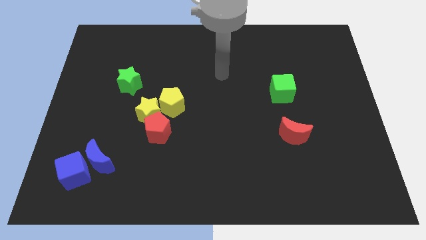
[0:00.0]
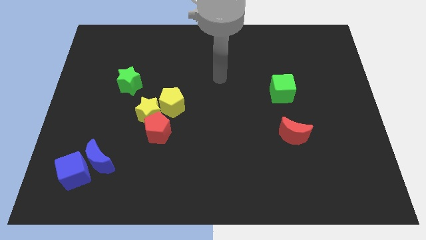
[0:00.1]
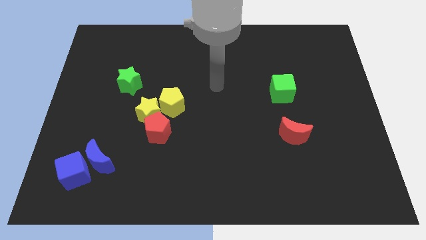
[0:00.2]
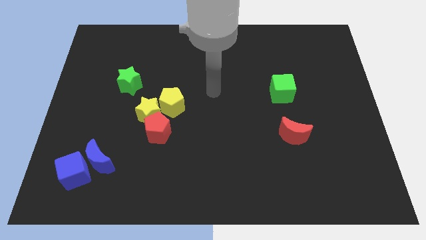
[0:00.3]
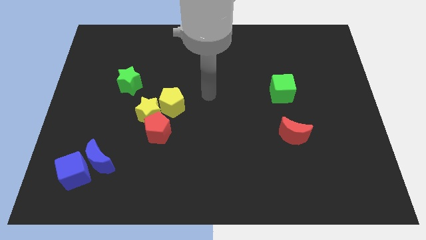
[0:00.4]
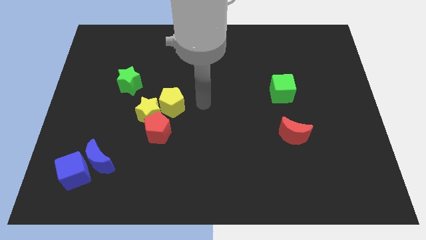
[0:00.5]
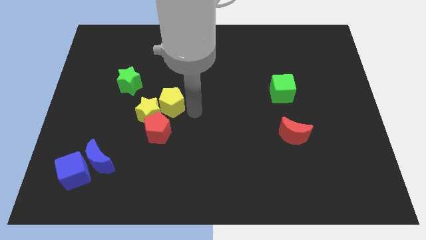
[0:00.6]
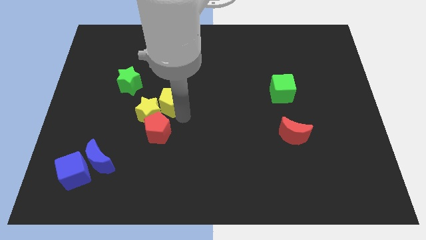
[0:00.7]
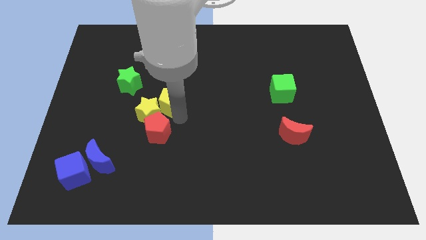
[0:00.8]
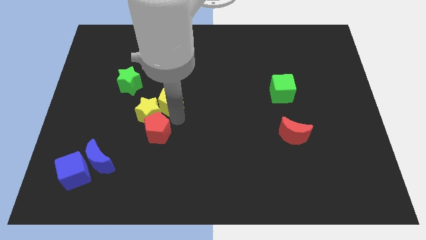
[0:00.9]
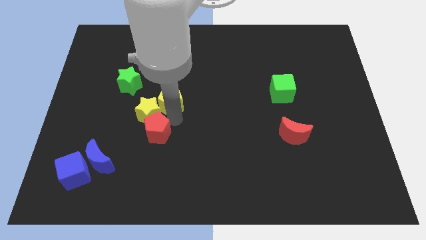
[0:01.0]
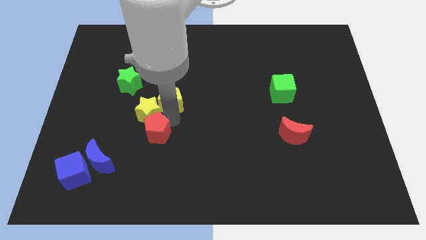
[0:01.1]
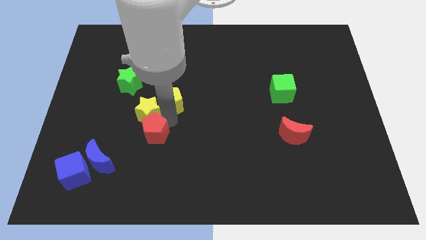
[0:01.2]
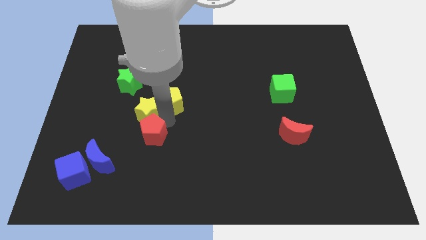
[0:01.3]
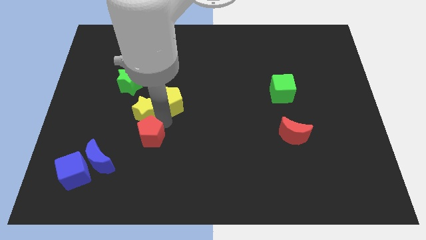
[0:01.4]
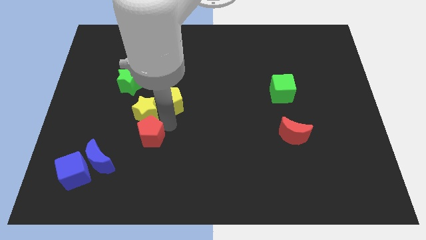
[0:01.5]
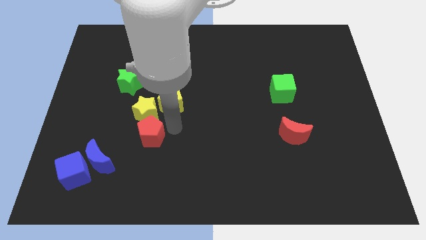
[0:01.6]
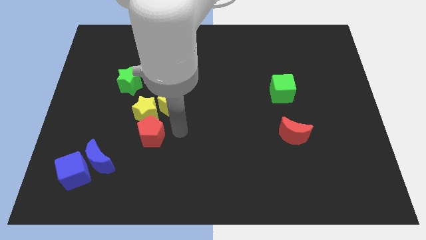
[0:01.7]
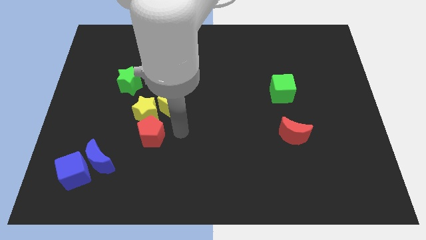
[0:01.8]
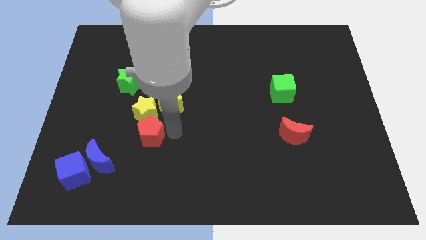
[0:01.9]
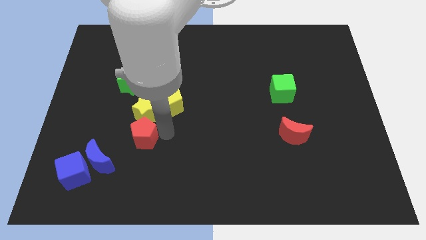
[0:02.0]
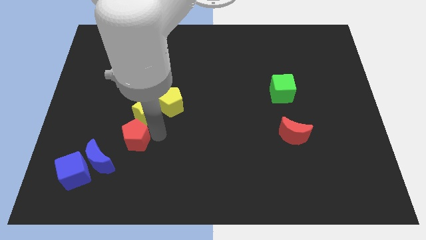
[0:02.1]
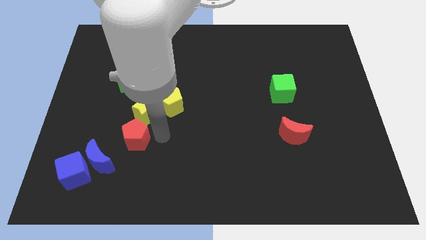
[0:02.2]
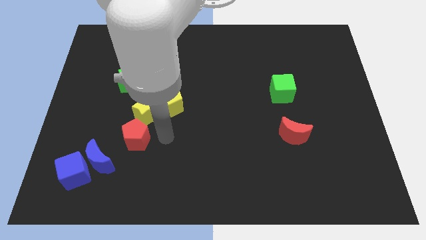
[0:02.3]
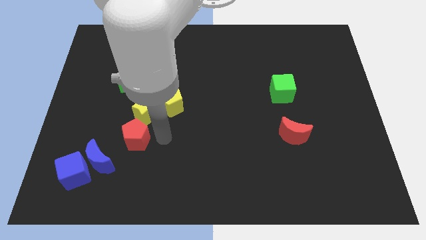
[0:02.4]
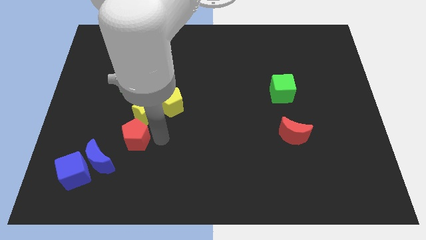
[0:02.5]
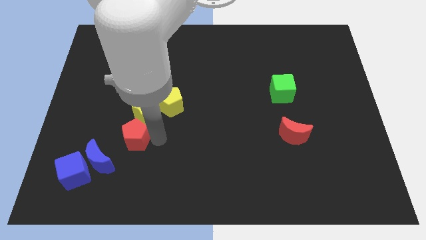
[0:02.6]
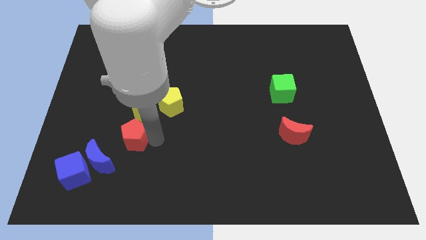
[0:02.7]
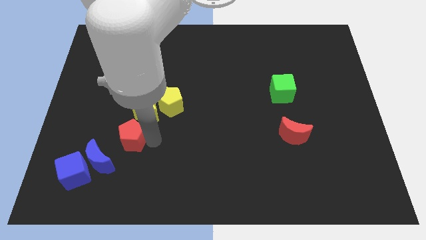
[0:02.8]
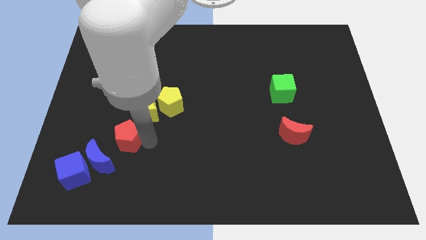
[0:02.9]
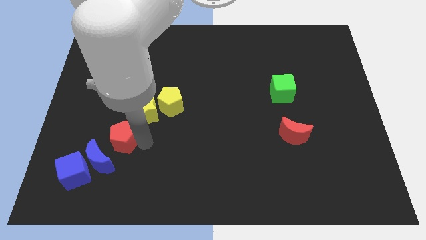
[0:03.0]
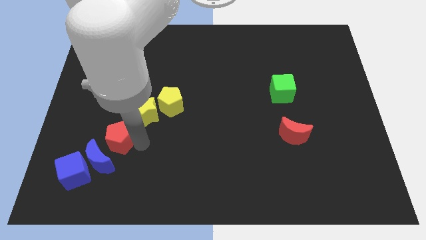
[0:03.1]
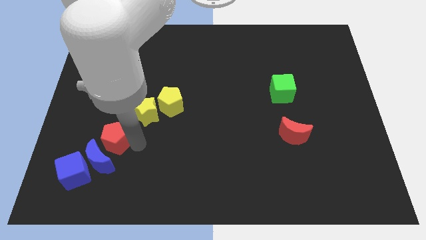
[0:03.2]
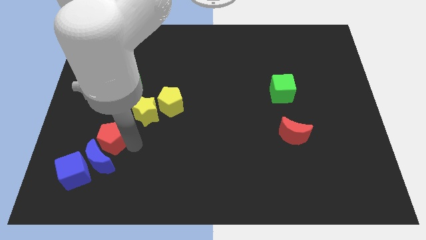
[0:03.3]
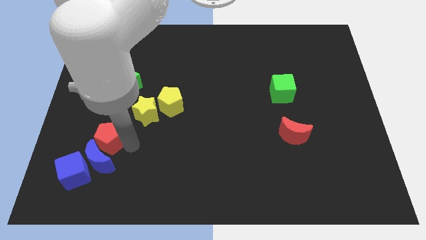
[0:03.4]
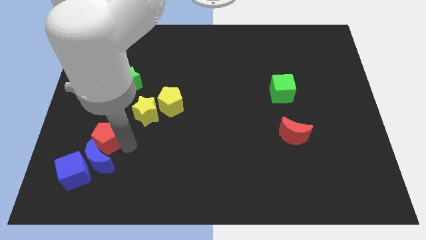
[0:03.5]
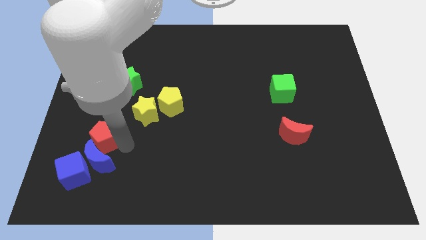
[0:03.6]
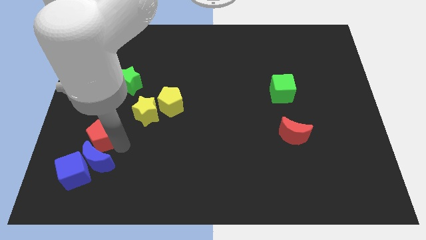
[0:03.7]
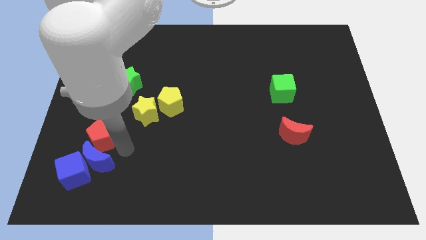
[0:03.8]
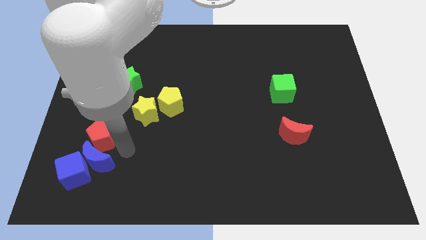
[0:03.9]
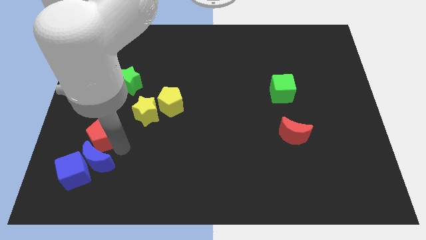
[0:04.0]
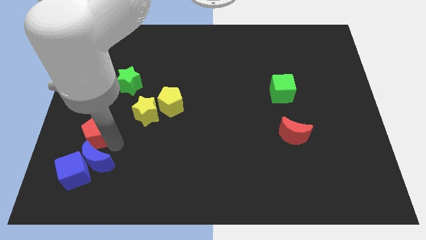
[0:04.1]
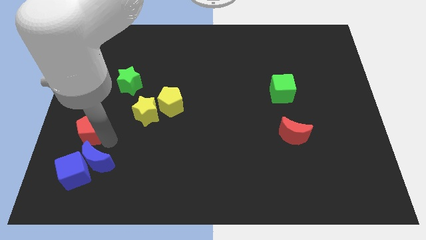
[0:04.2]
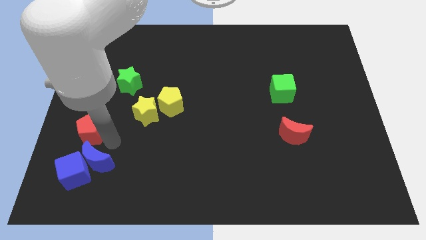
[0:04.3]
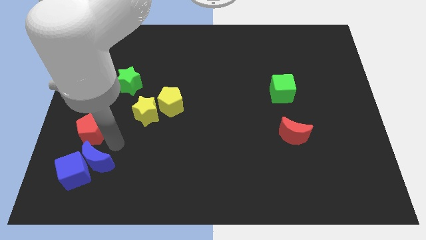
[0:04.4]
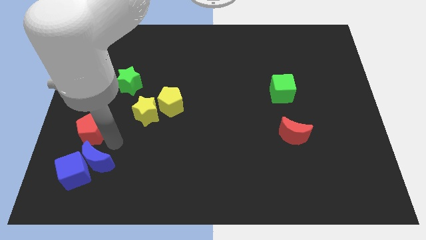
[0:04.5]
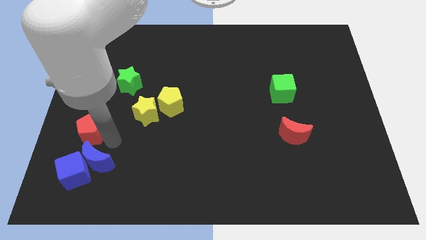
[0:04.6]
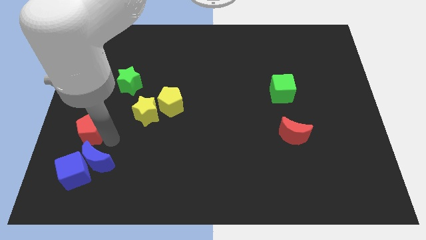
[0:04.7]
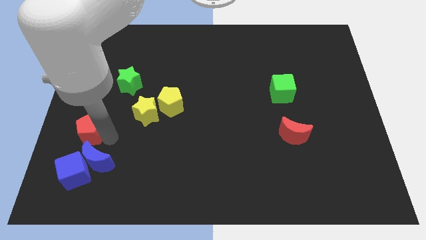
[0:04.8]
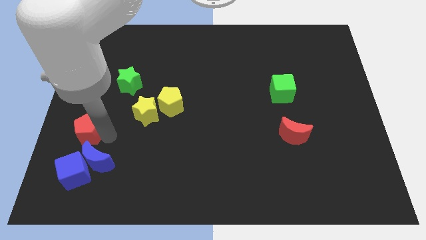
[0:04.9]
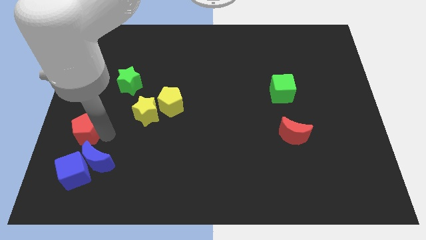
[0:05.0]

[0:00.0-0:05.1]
move the red pentagon to the center left
